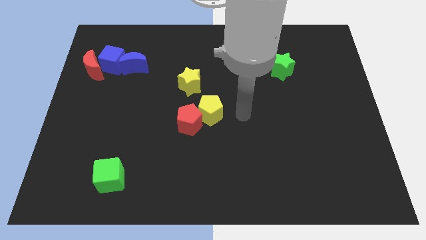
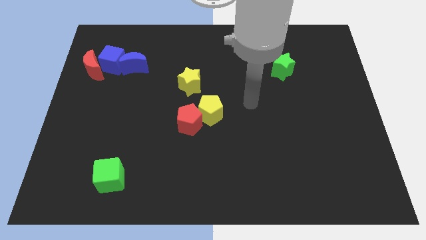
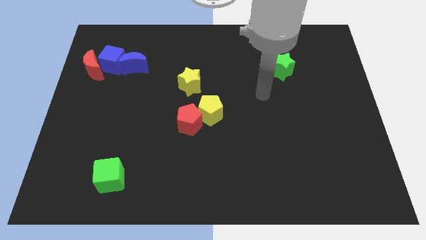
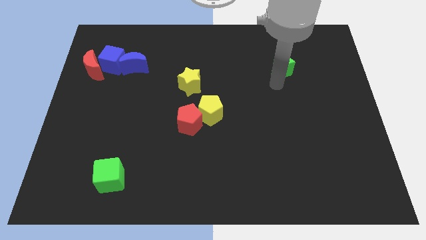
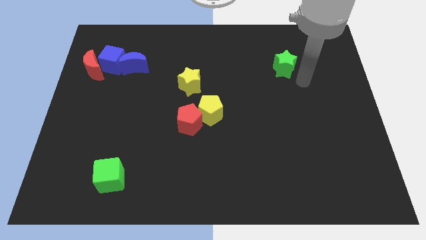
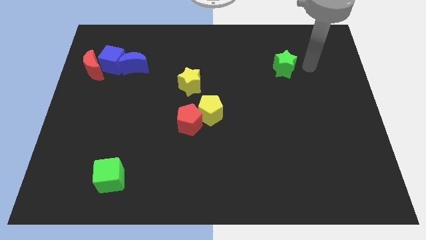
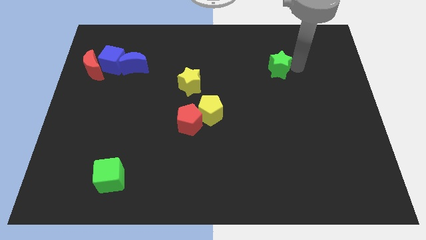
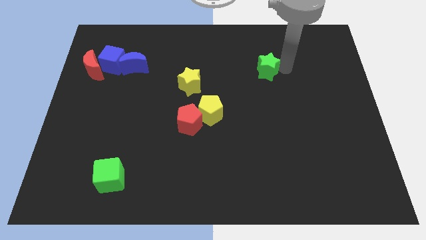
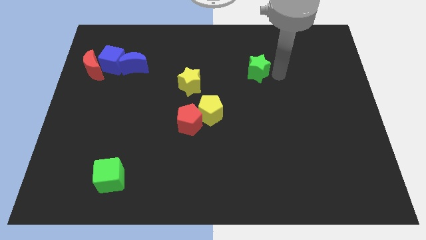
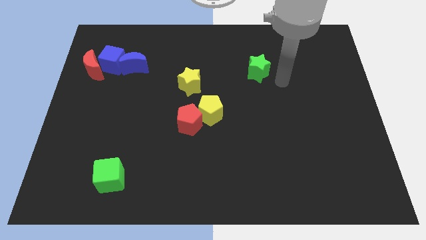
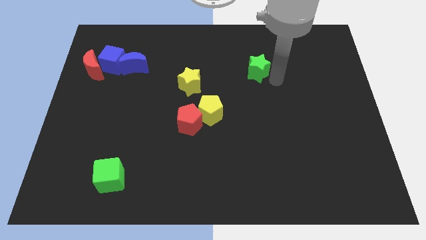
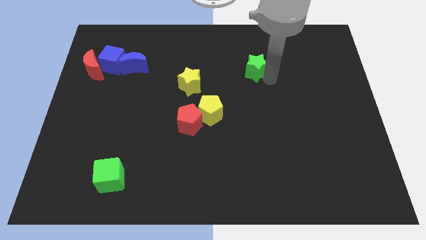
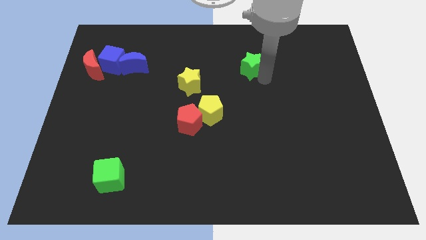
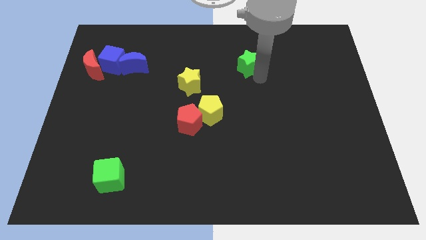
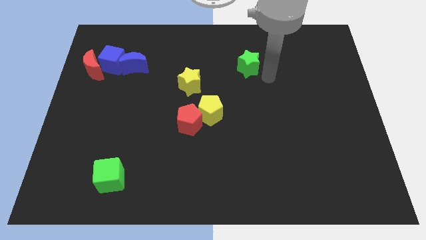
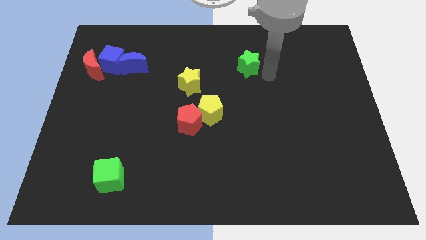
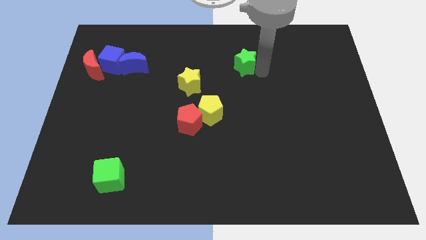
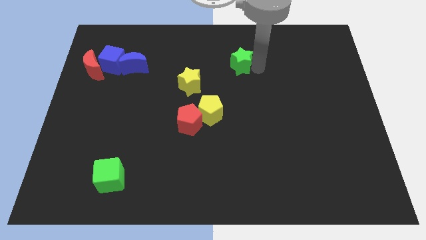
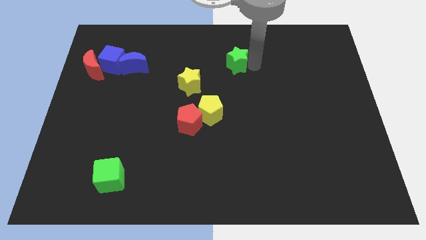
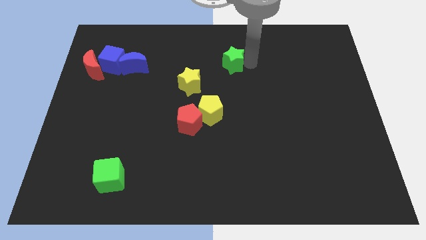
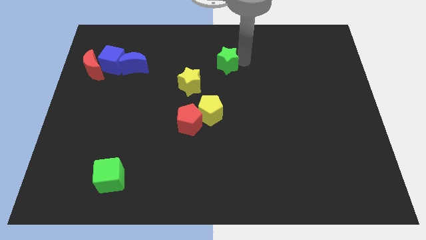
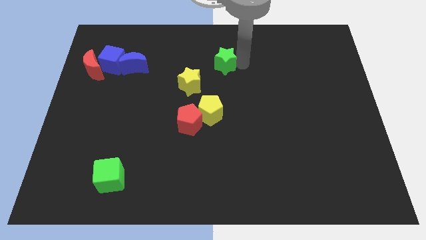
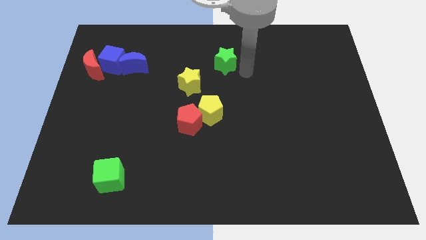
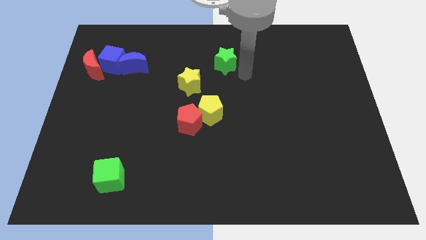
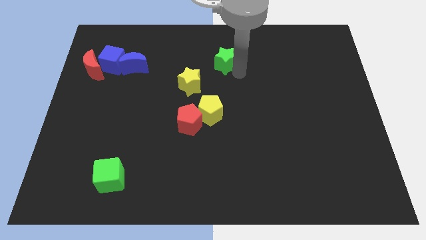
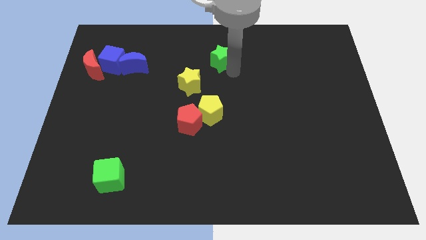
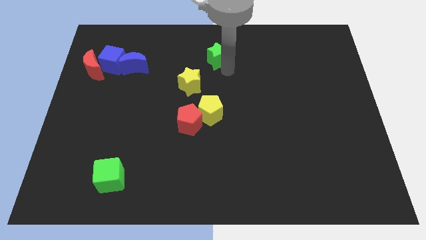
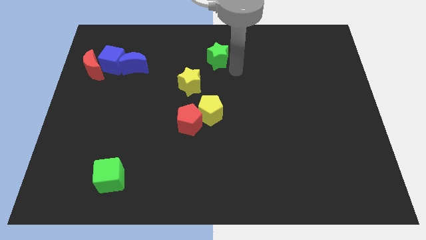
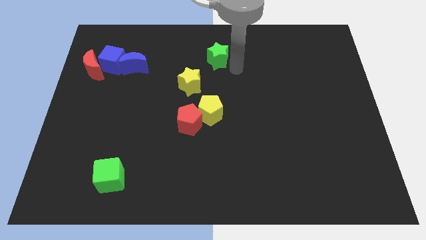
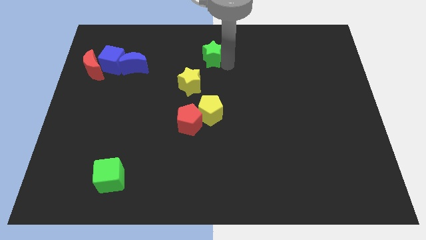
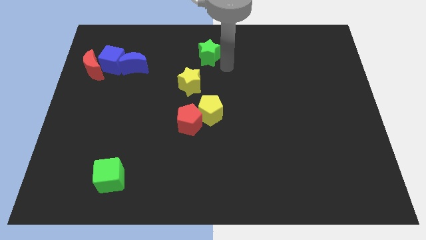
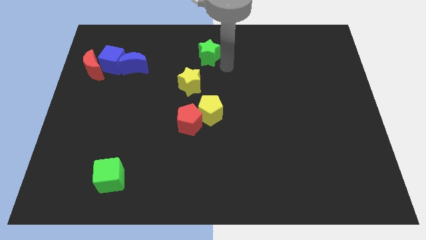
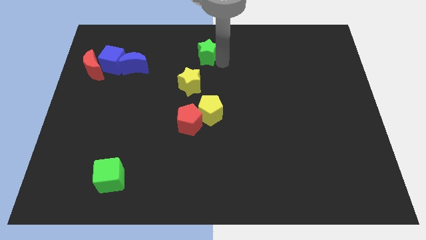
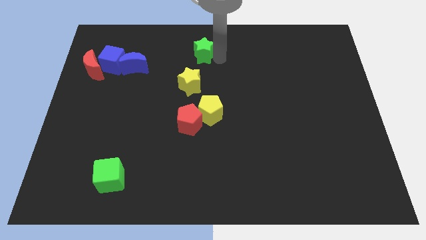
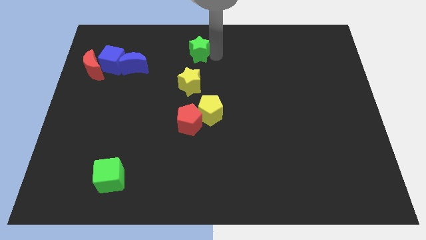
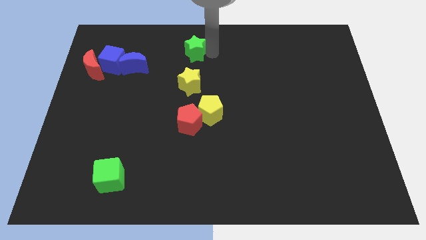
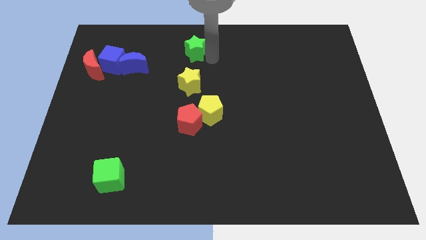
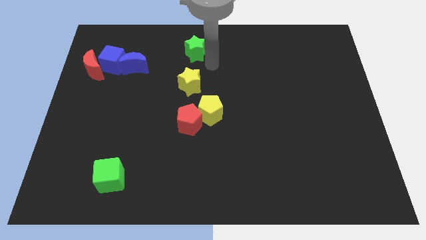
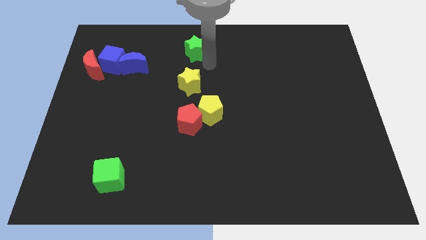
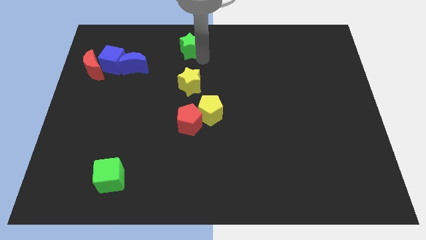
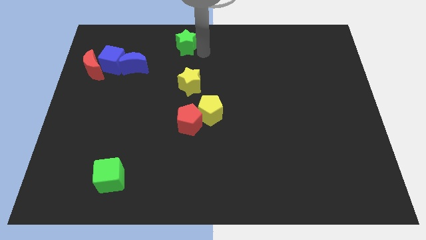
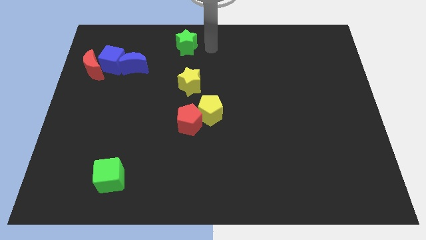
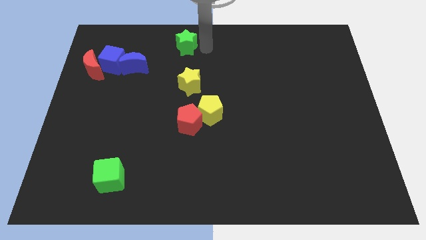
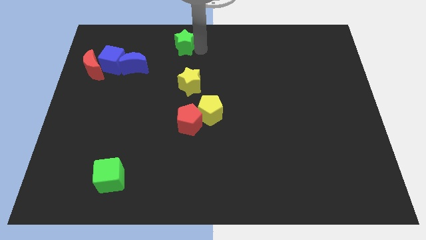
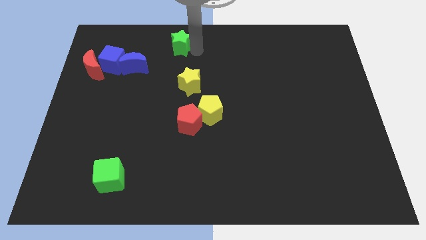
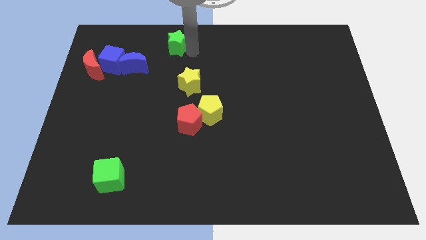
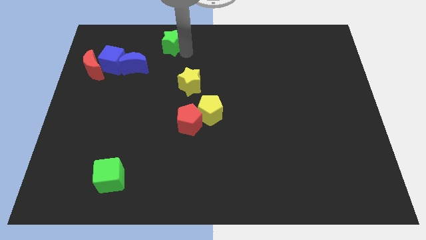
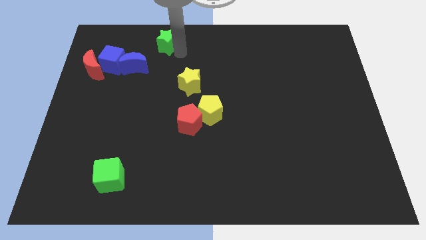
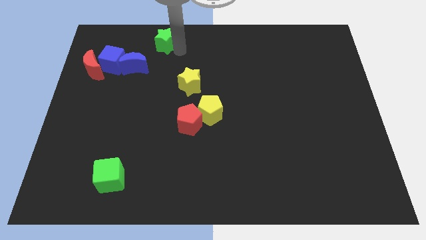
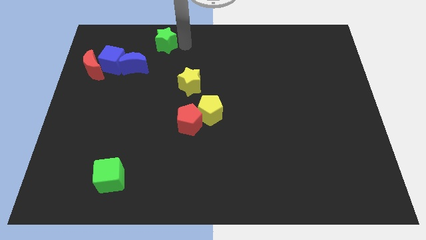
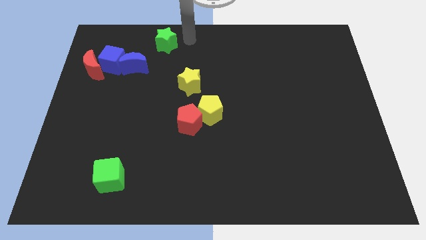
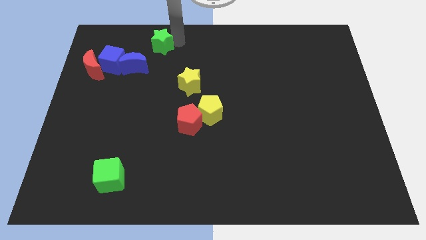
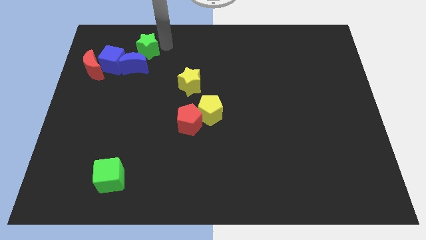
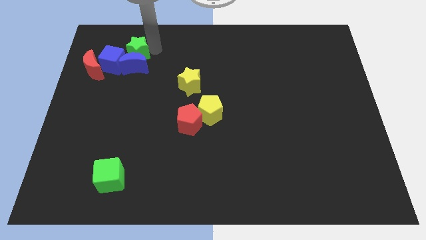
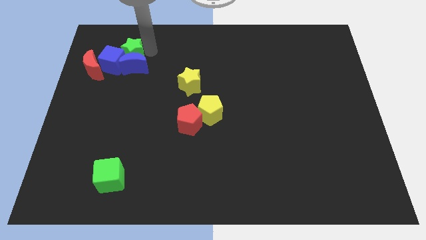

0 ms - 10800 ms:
put the green star towards the blue cube

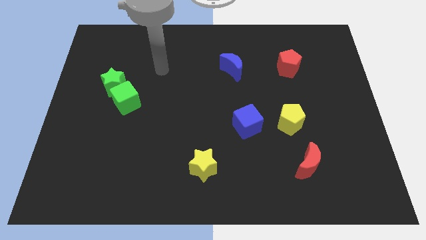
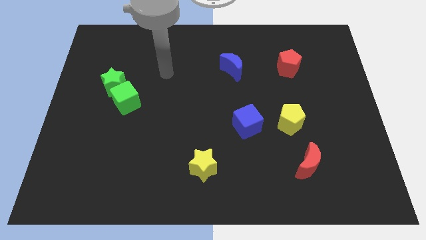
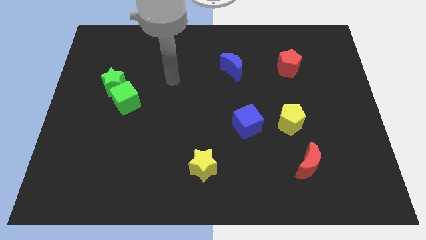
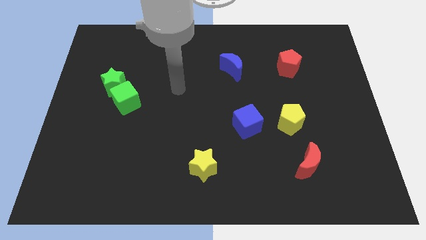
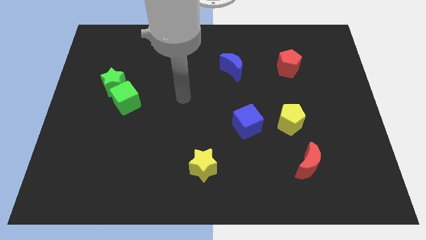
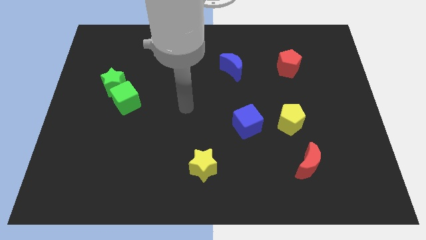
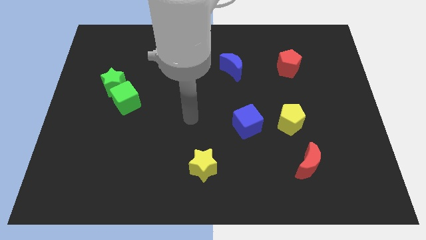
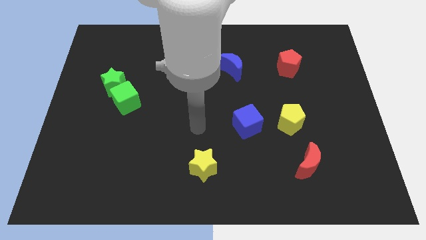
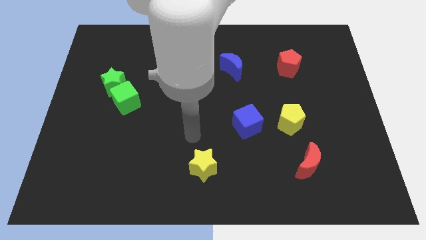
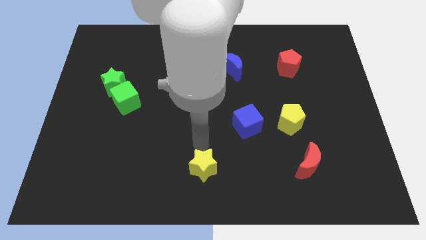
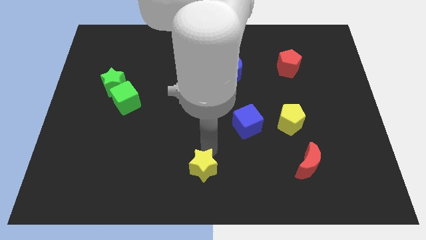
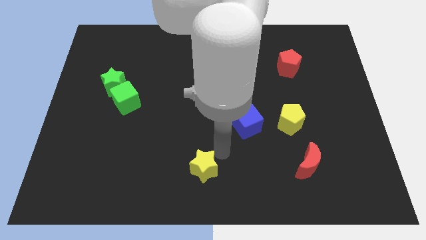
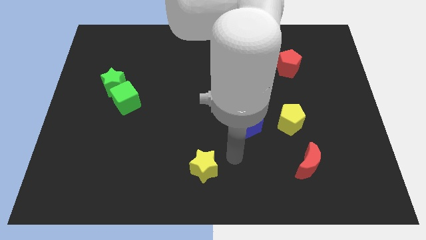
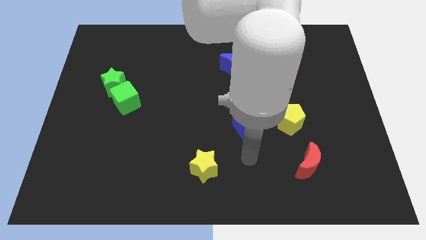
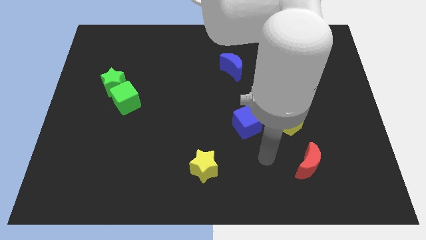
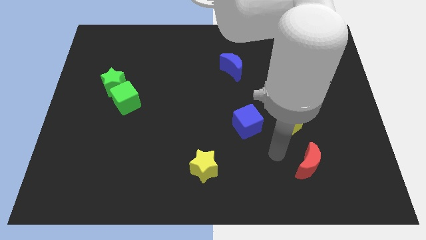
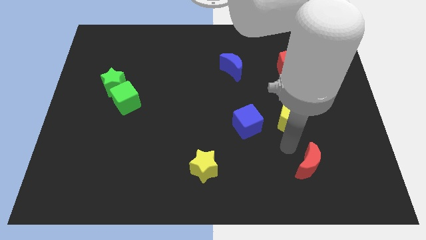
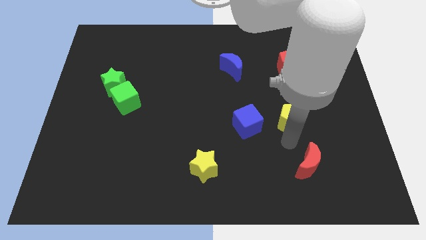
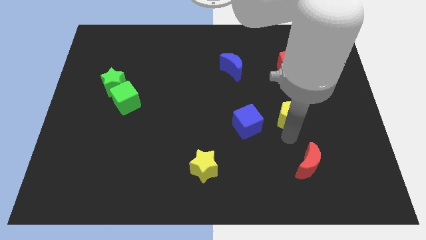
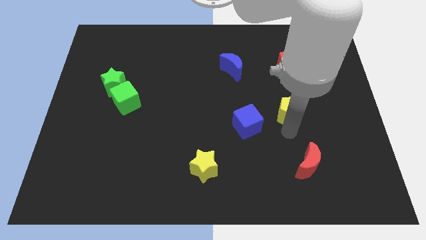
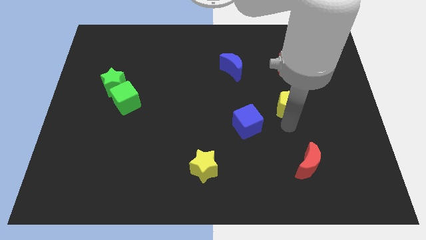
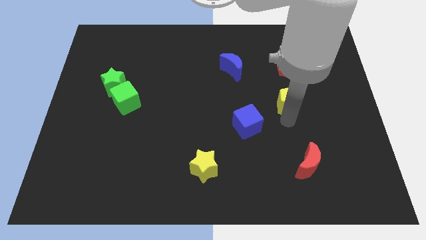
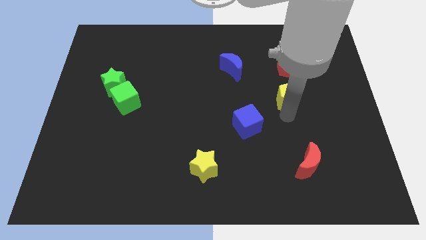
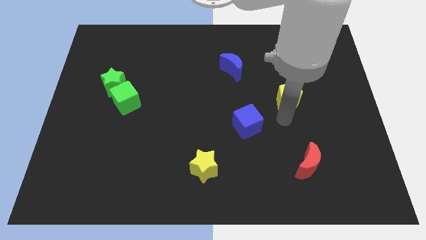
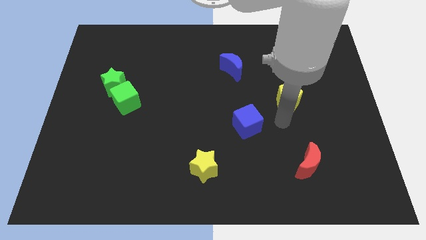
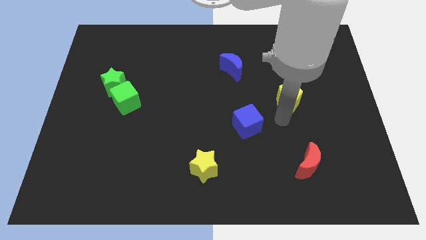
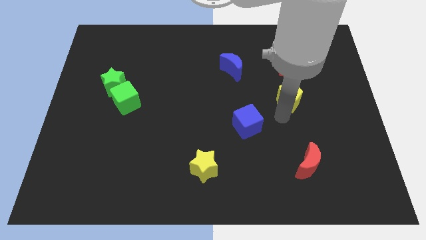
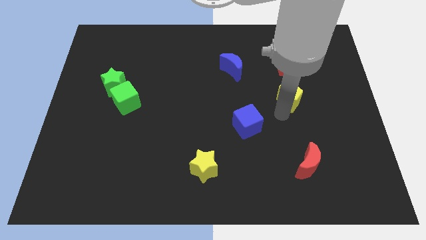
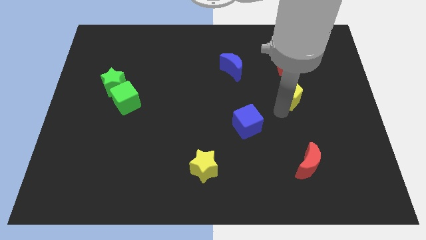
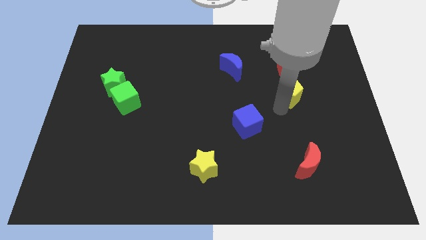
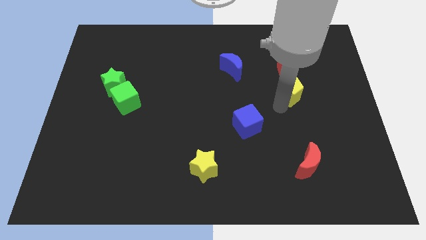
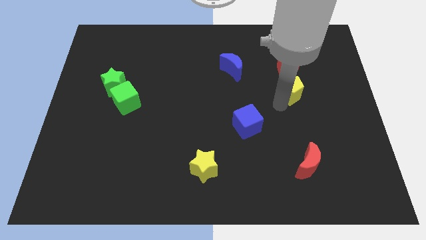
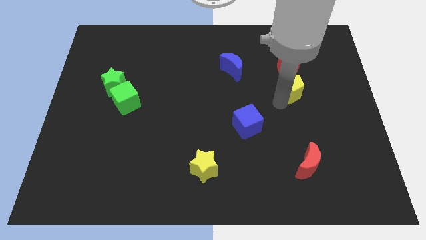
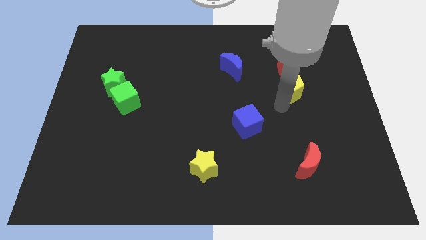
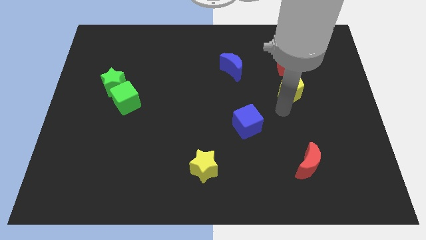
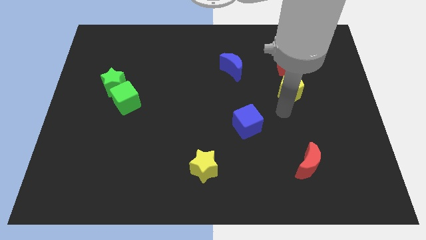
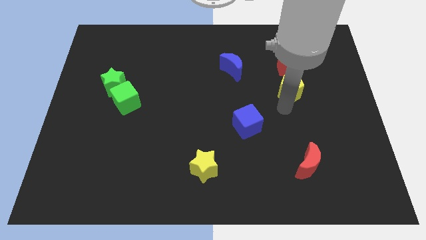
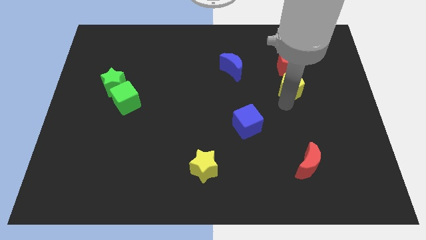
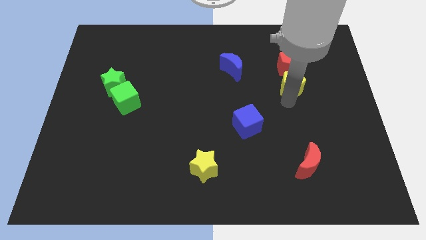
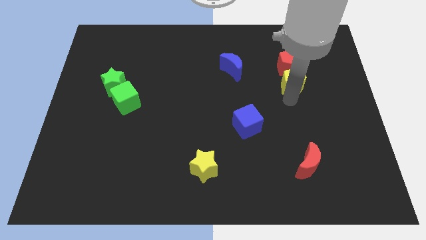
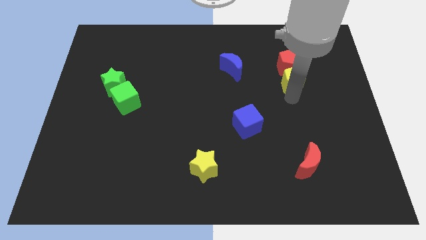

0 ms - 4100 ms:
move the yellow pentagon to the red pentagon
